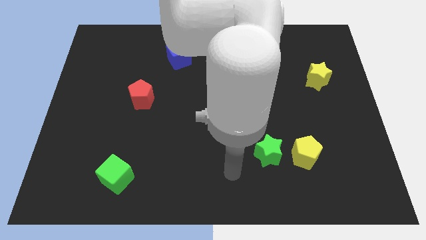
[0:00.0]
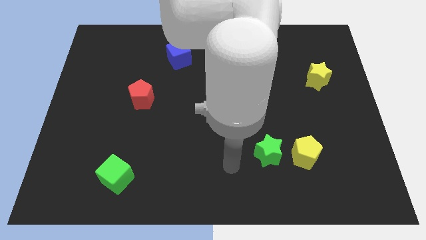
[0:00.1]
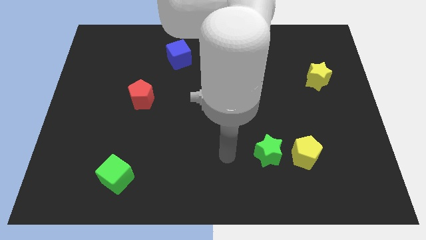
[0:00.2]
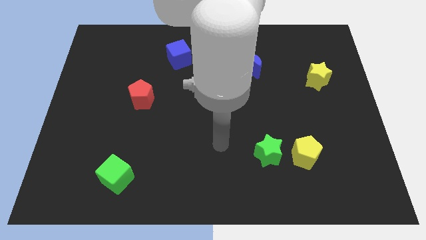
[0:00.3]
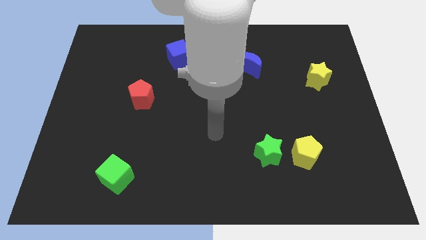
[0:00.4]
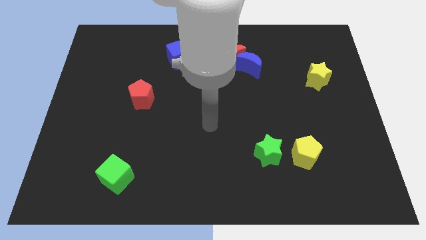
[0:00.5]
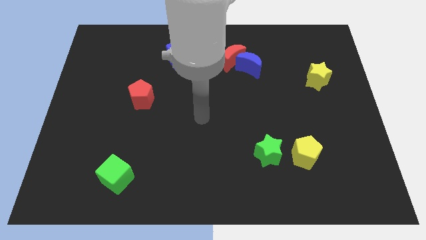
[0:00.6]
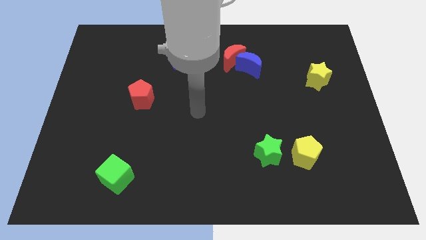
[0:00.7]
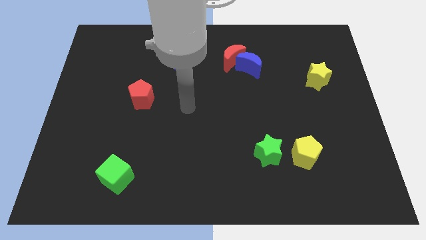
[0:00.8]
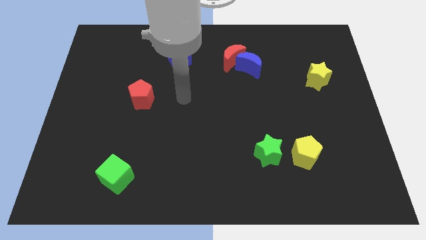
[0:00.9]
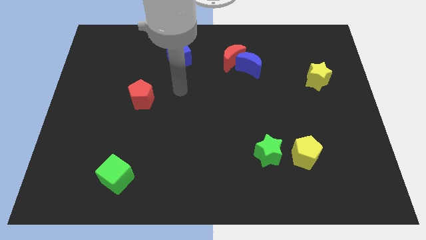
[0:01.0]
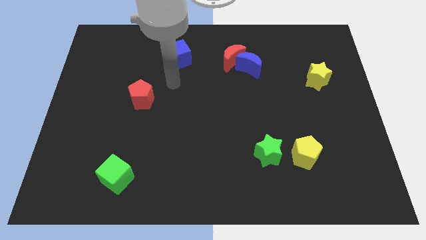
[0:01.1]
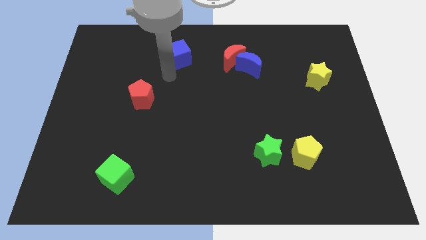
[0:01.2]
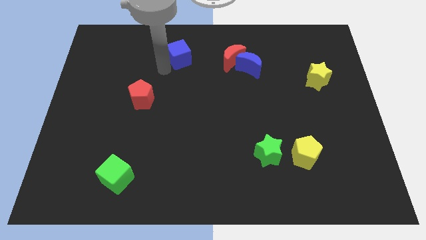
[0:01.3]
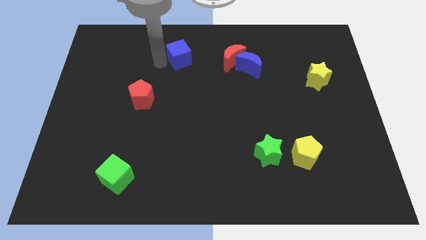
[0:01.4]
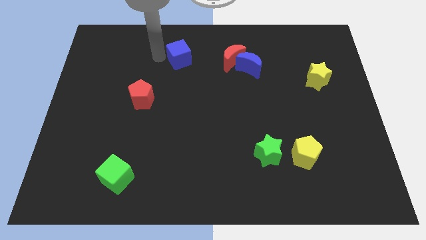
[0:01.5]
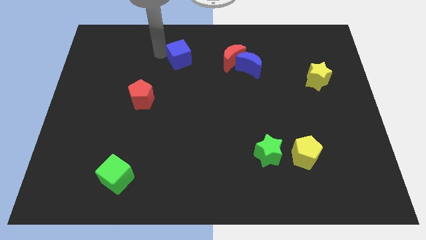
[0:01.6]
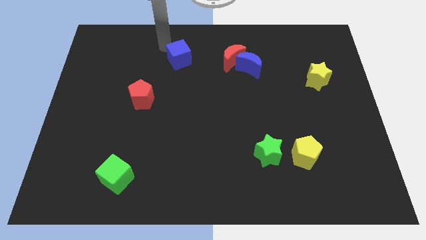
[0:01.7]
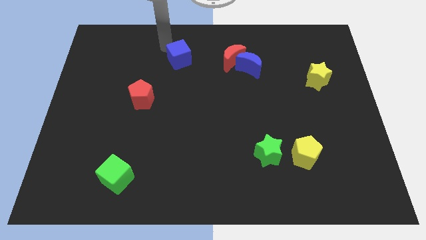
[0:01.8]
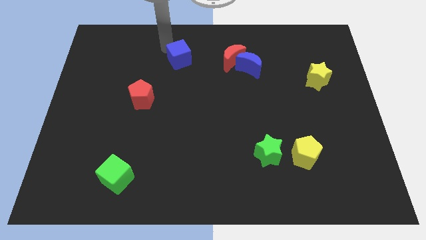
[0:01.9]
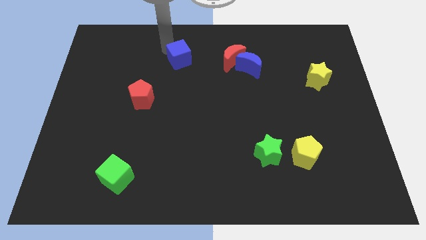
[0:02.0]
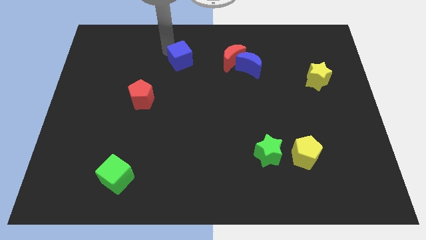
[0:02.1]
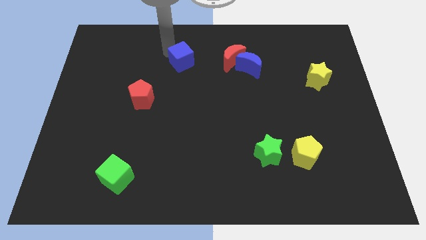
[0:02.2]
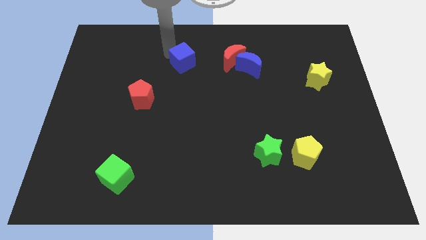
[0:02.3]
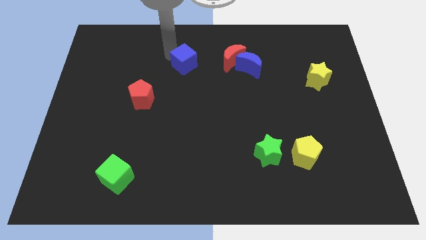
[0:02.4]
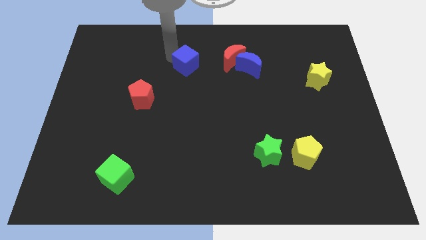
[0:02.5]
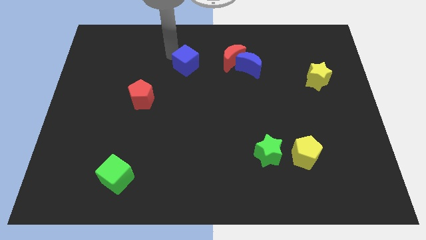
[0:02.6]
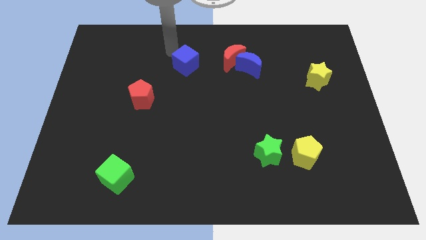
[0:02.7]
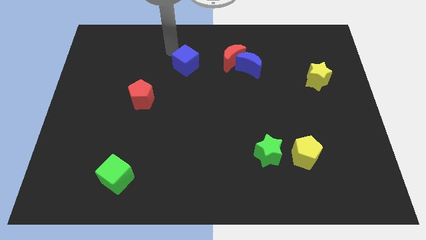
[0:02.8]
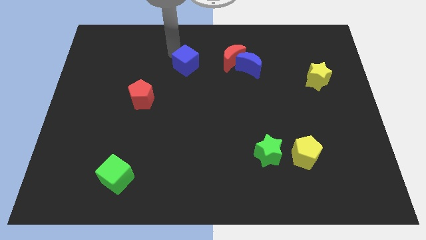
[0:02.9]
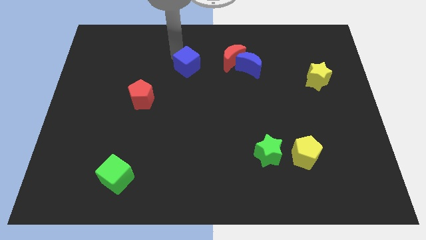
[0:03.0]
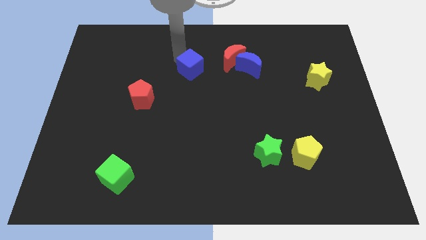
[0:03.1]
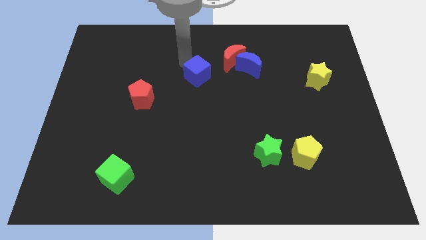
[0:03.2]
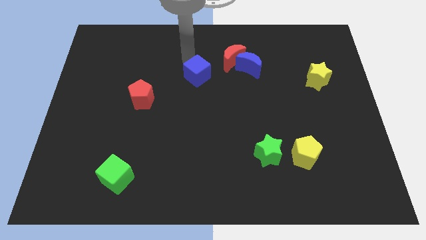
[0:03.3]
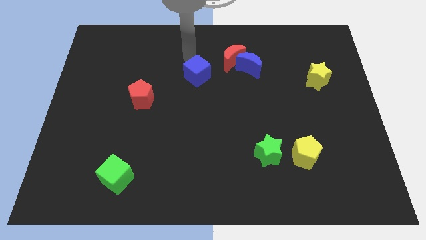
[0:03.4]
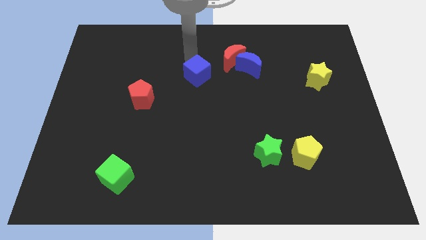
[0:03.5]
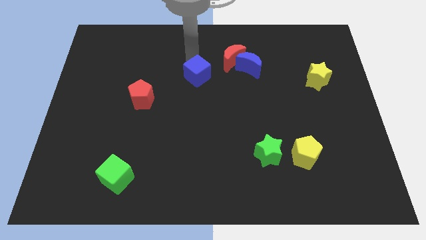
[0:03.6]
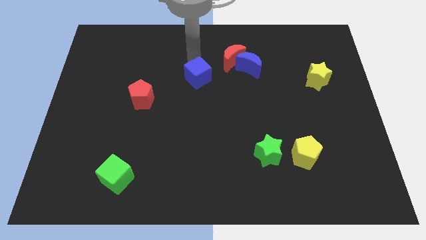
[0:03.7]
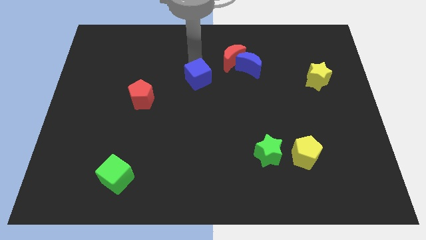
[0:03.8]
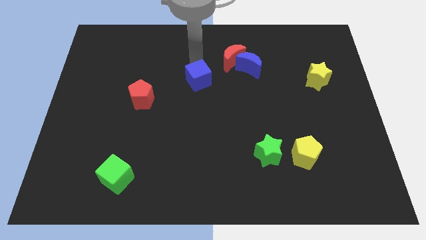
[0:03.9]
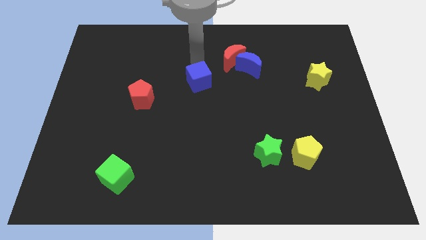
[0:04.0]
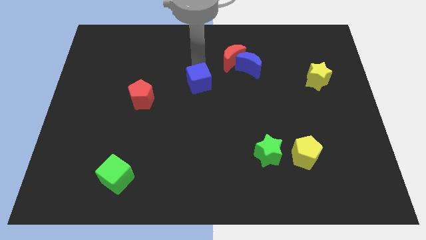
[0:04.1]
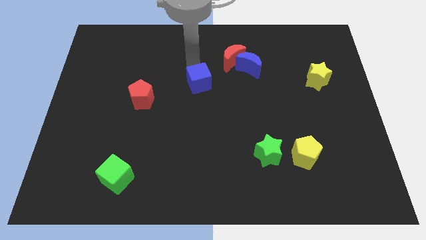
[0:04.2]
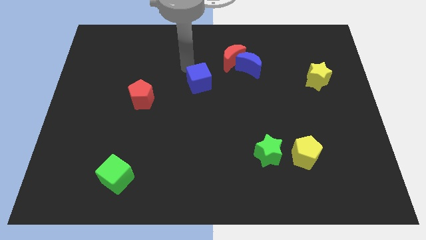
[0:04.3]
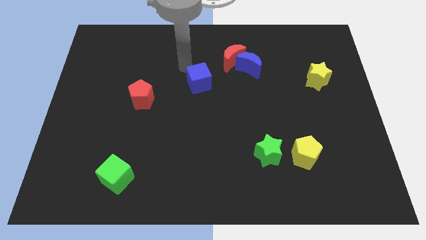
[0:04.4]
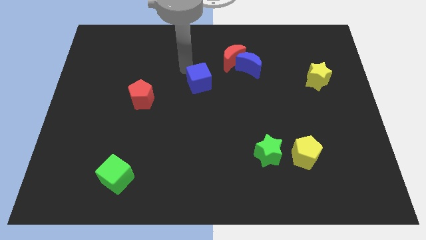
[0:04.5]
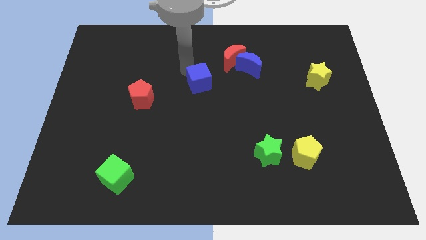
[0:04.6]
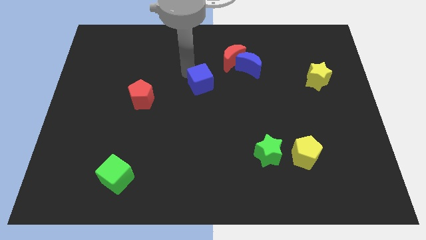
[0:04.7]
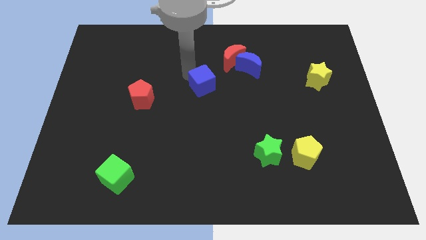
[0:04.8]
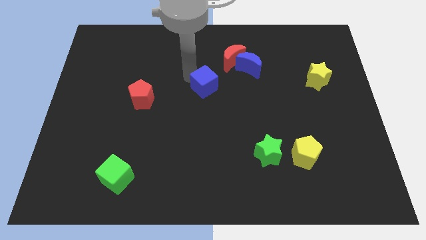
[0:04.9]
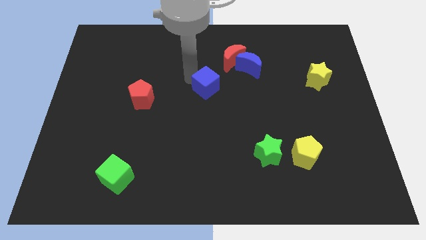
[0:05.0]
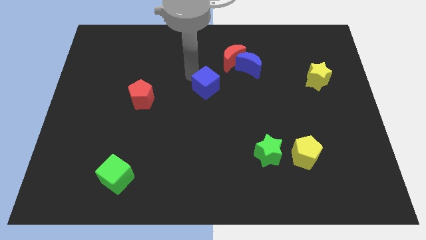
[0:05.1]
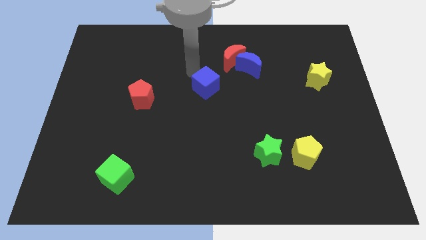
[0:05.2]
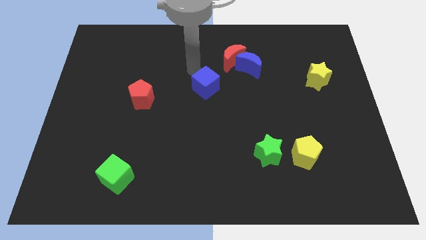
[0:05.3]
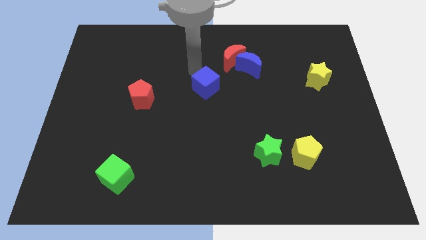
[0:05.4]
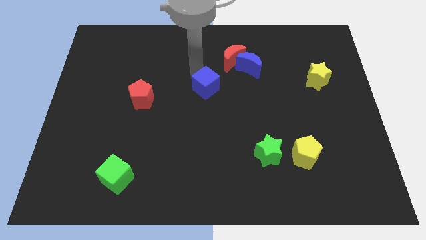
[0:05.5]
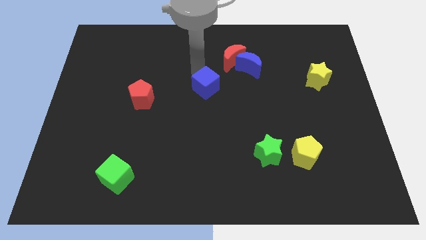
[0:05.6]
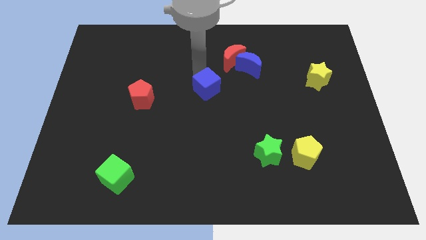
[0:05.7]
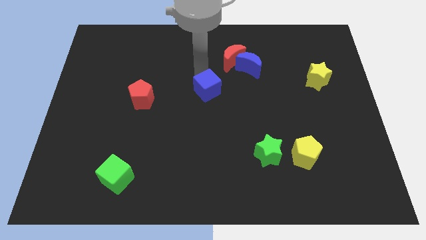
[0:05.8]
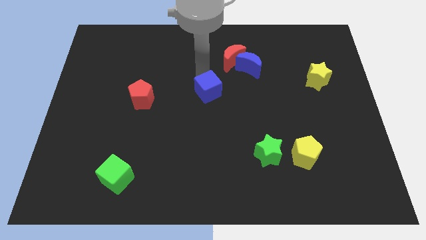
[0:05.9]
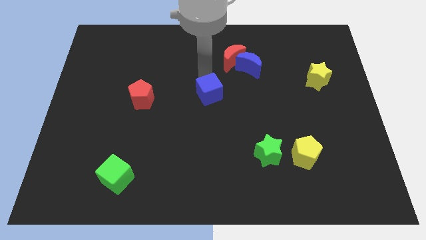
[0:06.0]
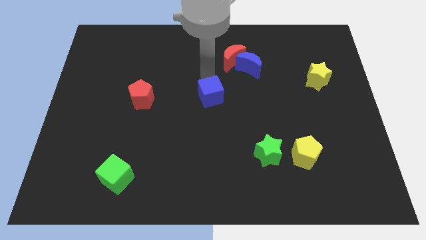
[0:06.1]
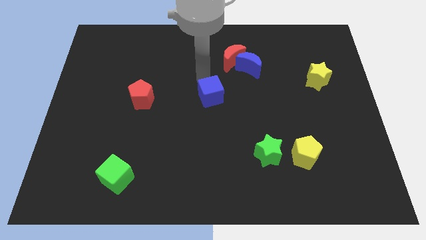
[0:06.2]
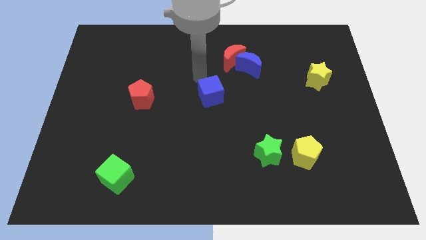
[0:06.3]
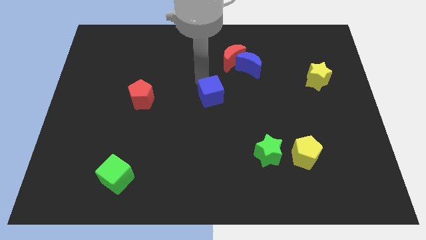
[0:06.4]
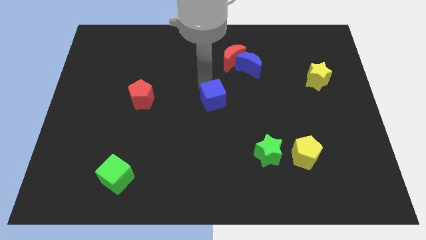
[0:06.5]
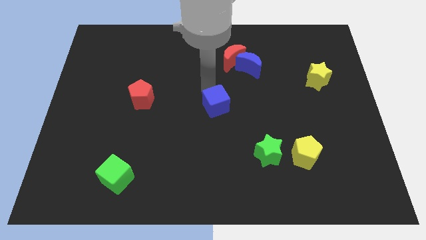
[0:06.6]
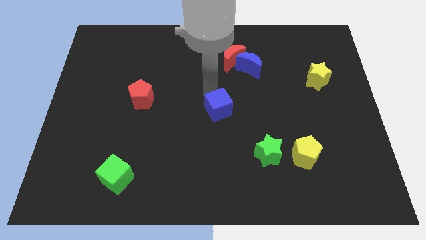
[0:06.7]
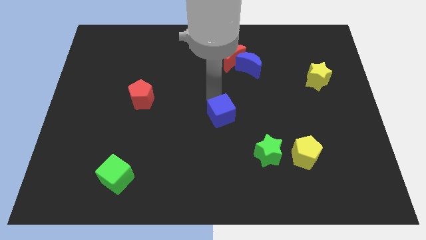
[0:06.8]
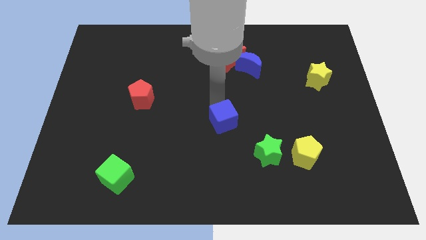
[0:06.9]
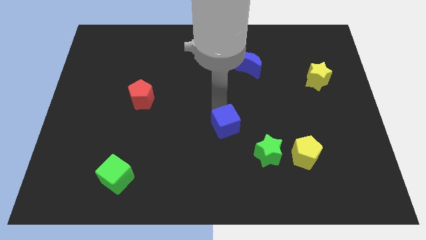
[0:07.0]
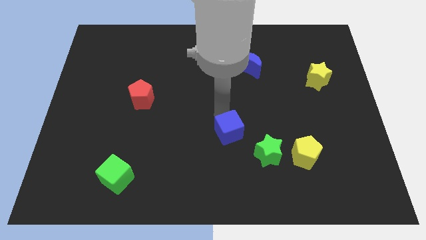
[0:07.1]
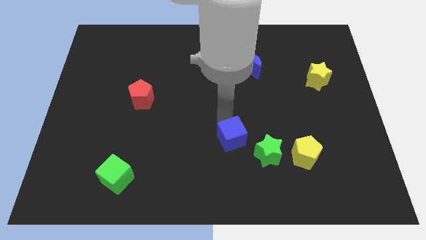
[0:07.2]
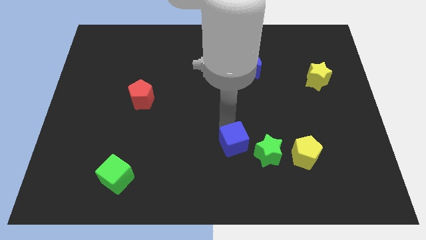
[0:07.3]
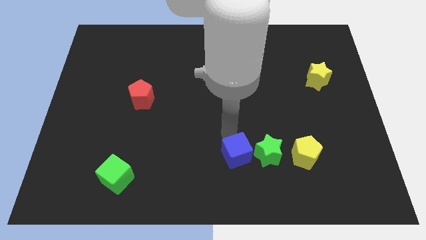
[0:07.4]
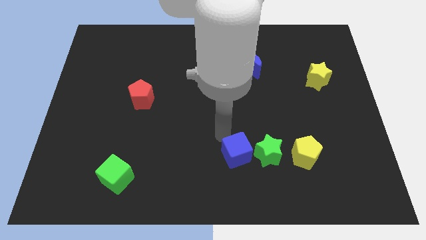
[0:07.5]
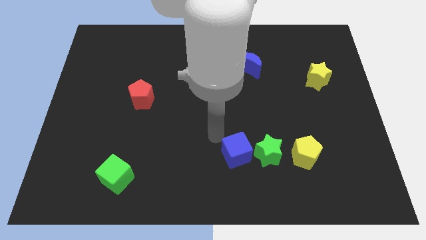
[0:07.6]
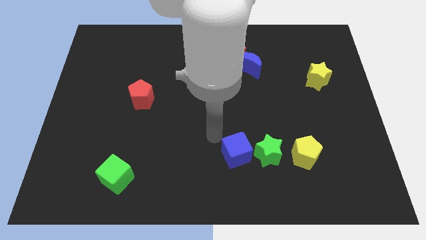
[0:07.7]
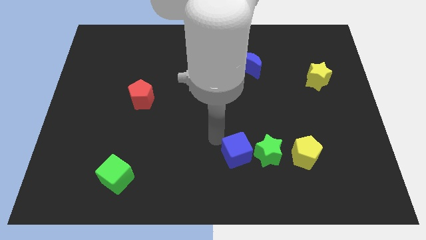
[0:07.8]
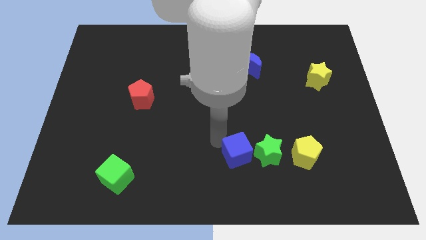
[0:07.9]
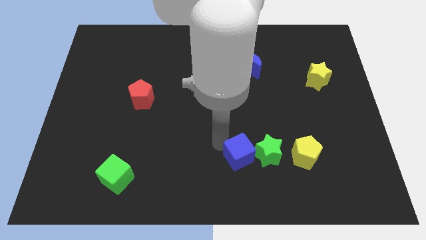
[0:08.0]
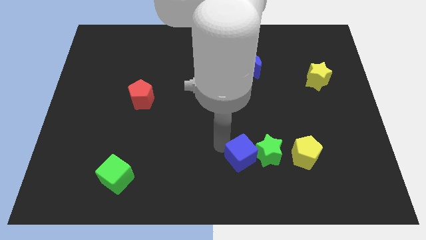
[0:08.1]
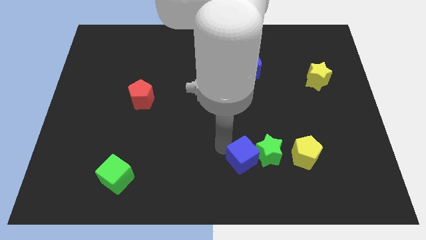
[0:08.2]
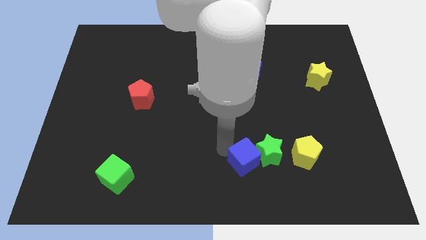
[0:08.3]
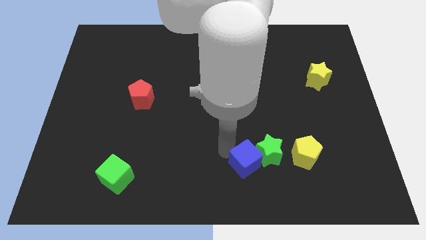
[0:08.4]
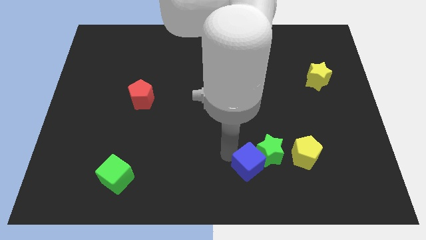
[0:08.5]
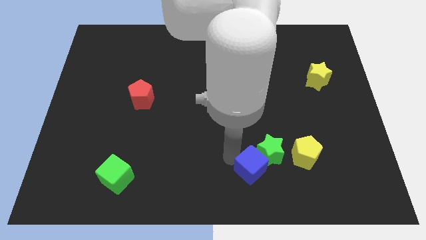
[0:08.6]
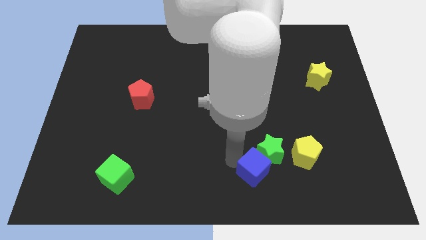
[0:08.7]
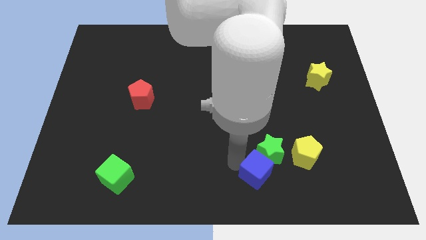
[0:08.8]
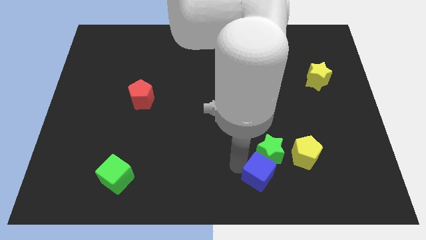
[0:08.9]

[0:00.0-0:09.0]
push the blue cube to the bottom left of the yellow pentagon
